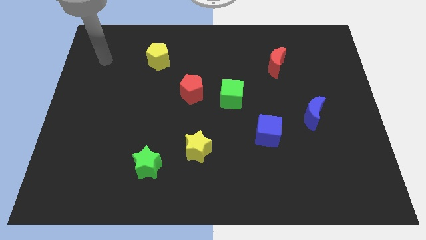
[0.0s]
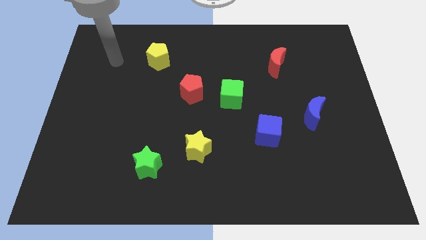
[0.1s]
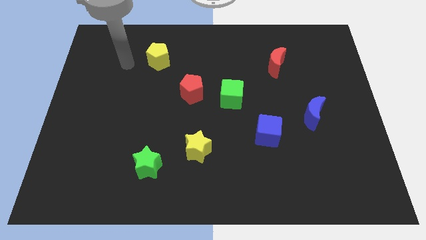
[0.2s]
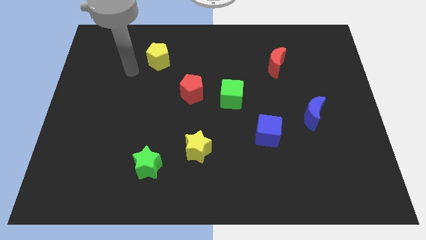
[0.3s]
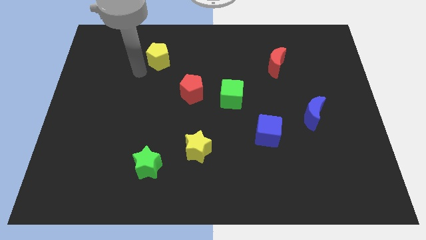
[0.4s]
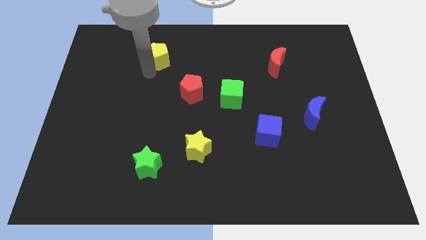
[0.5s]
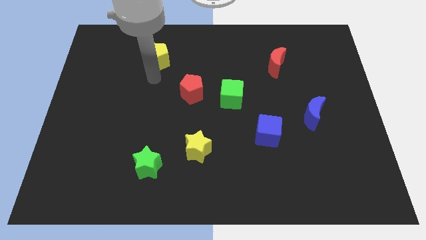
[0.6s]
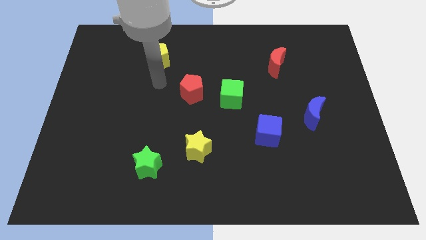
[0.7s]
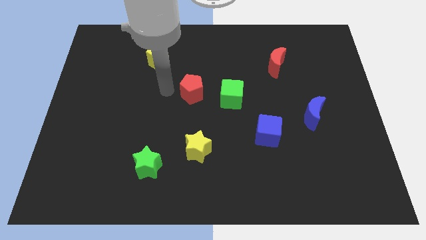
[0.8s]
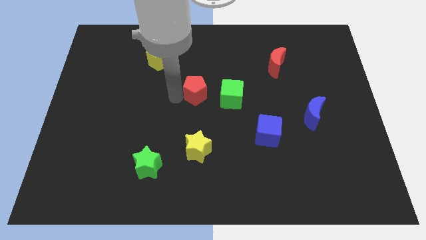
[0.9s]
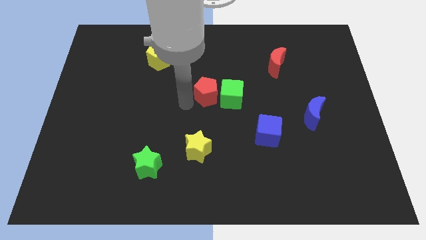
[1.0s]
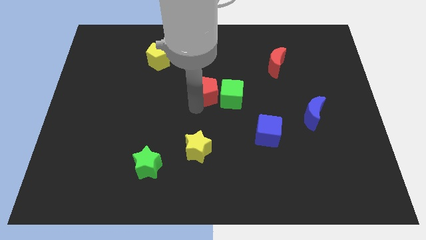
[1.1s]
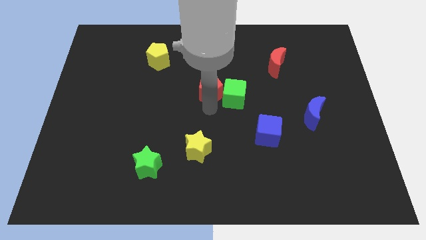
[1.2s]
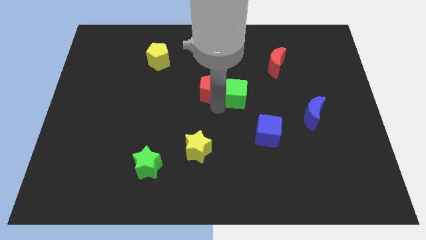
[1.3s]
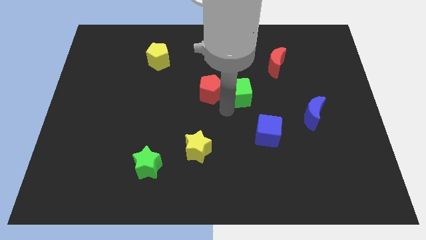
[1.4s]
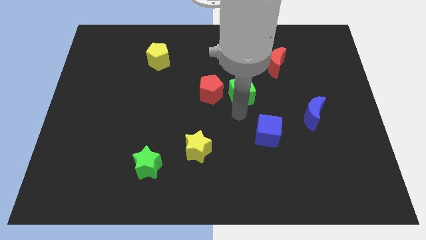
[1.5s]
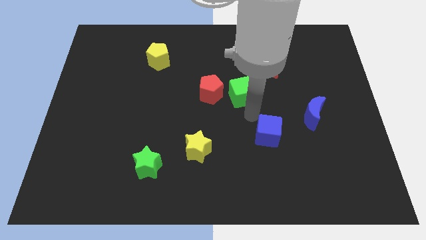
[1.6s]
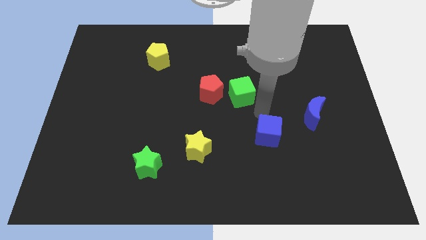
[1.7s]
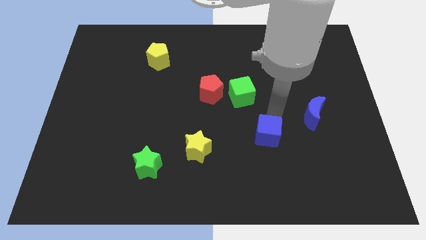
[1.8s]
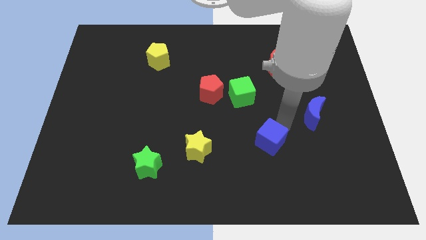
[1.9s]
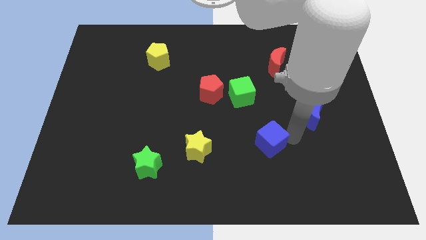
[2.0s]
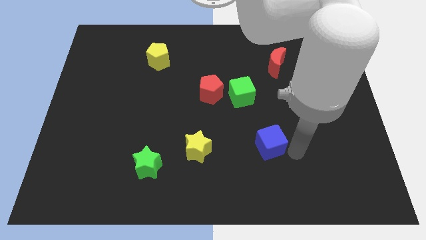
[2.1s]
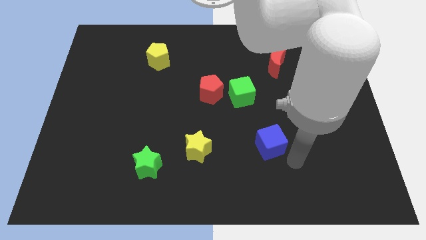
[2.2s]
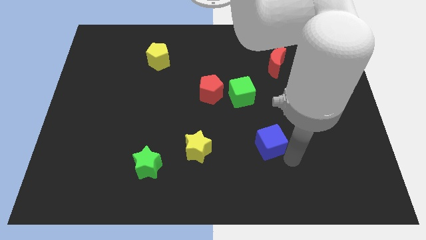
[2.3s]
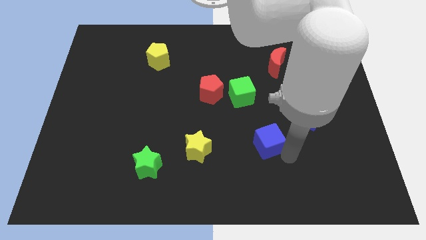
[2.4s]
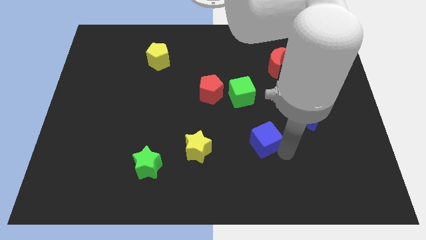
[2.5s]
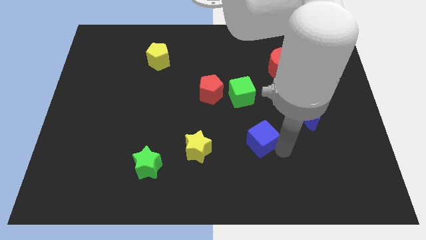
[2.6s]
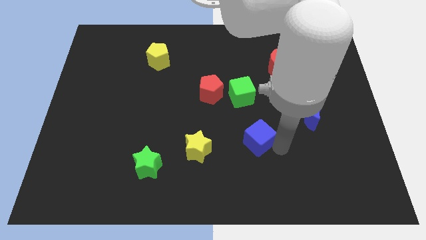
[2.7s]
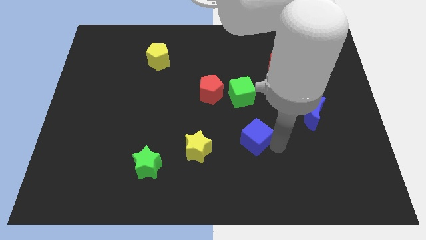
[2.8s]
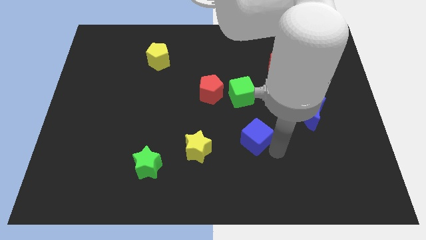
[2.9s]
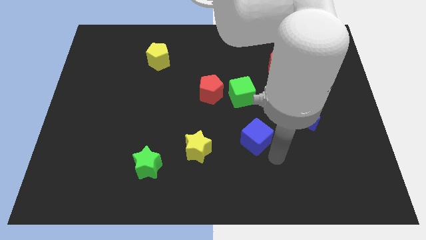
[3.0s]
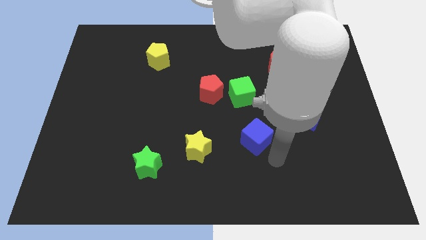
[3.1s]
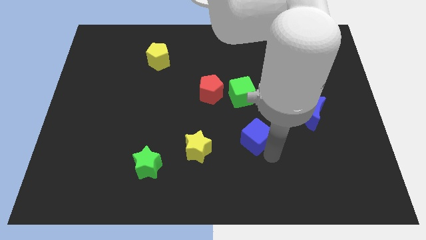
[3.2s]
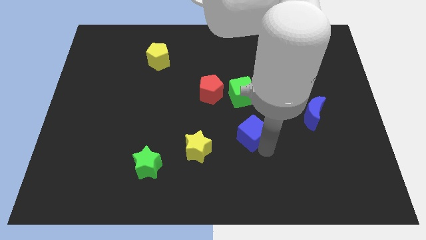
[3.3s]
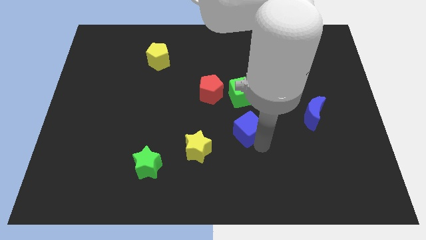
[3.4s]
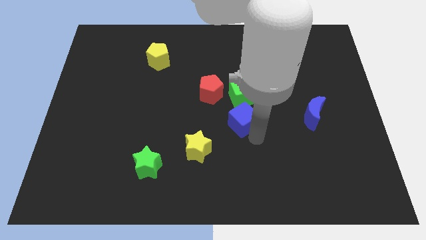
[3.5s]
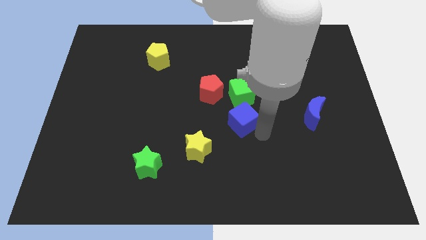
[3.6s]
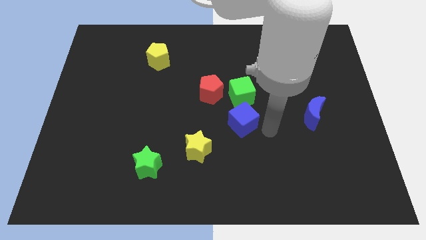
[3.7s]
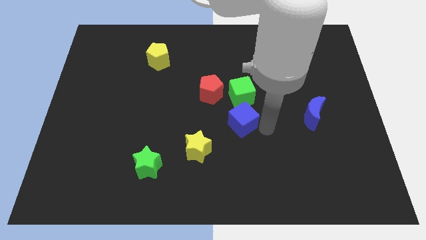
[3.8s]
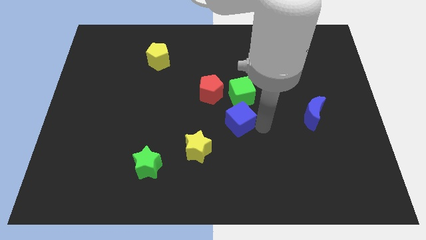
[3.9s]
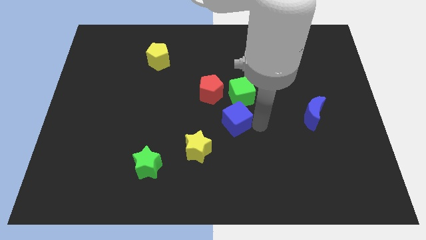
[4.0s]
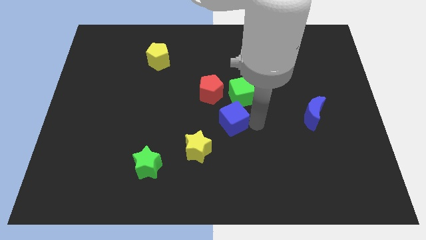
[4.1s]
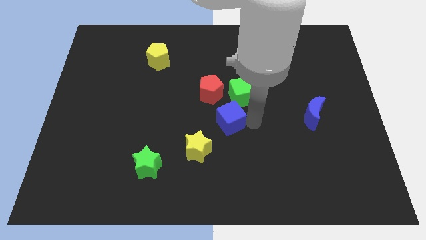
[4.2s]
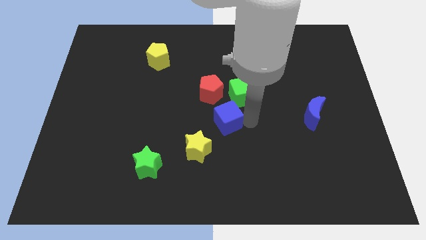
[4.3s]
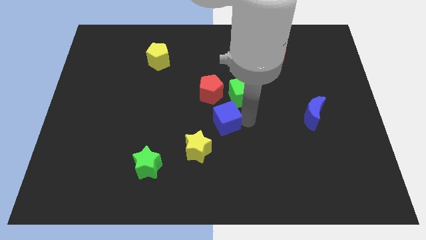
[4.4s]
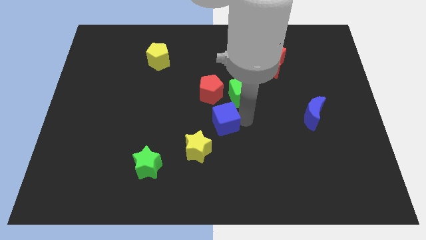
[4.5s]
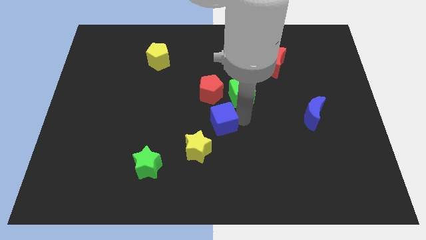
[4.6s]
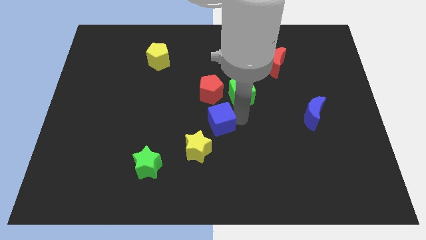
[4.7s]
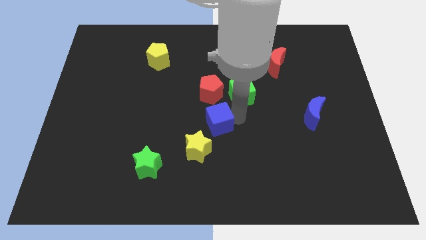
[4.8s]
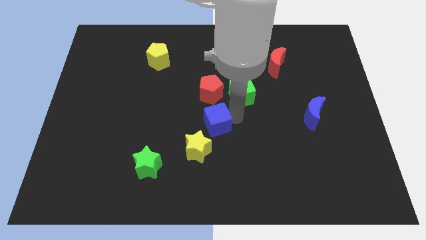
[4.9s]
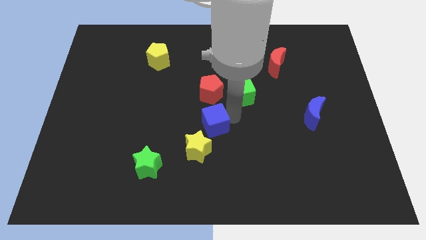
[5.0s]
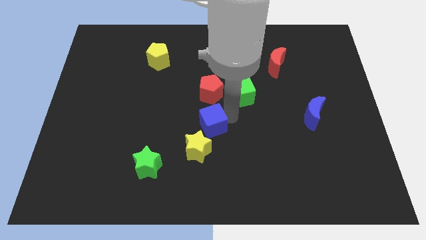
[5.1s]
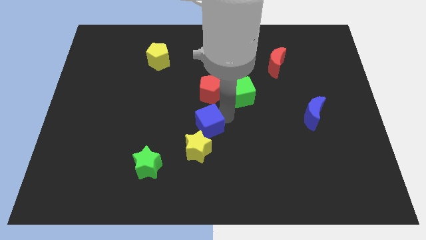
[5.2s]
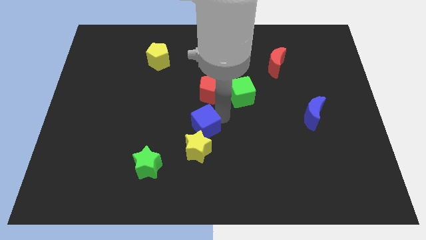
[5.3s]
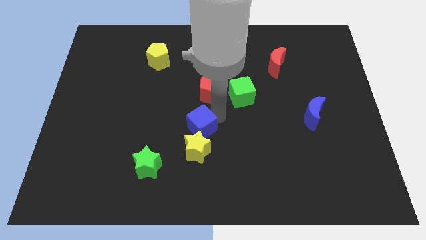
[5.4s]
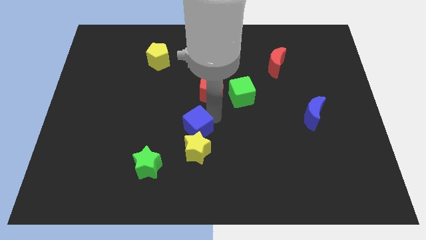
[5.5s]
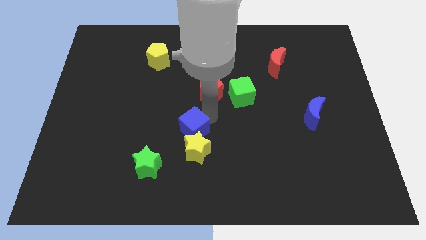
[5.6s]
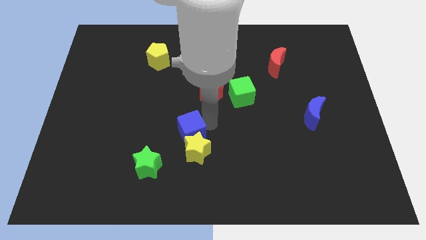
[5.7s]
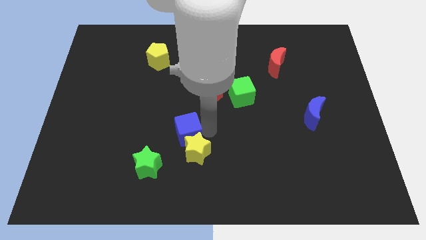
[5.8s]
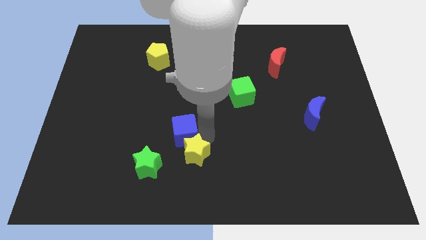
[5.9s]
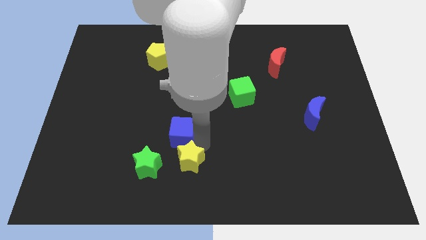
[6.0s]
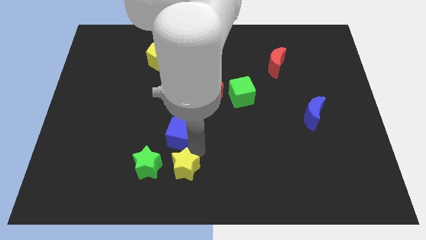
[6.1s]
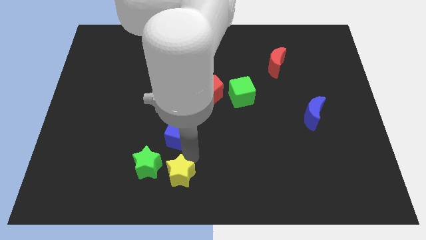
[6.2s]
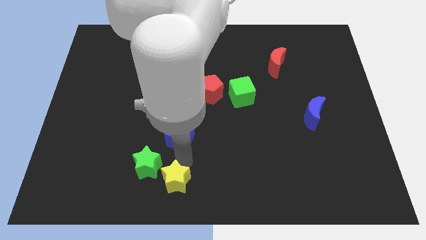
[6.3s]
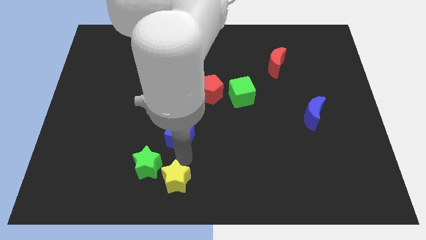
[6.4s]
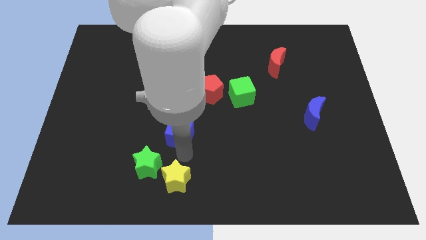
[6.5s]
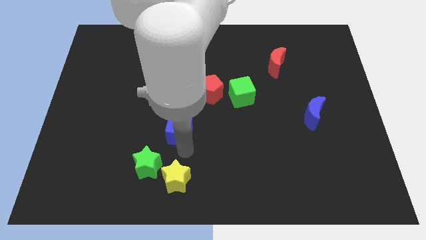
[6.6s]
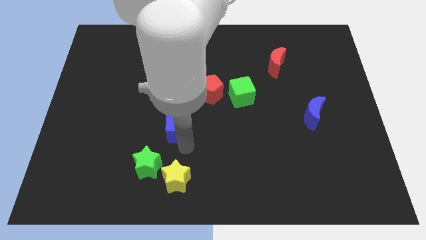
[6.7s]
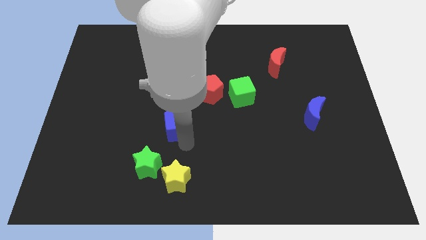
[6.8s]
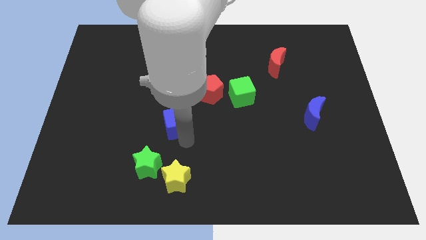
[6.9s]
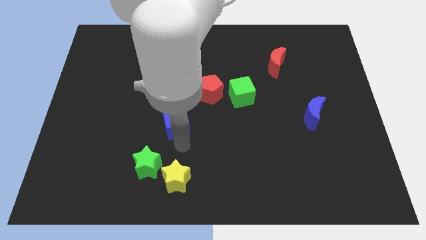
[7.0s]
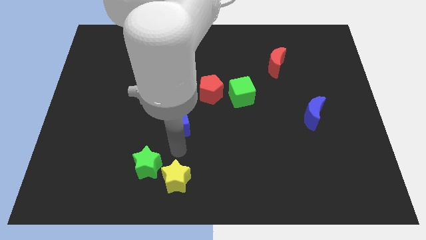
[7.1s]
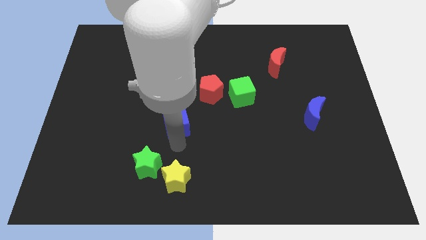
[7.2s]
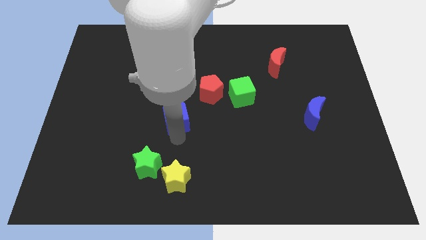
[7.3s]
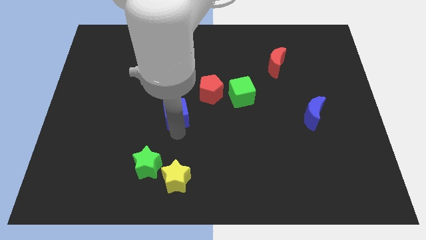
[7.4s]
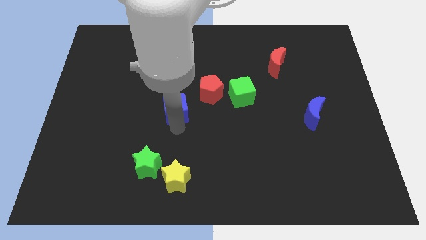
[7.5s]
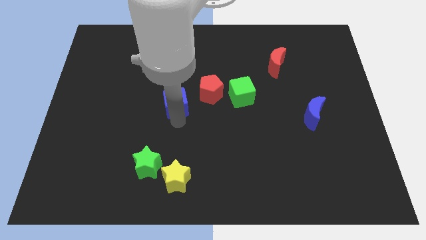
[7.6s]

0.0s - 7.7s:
slide the blue cube to the left of the red pentagon

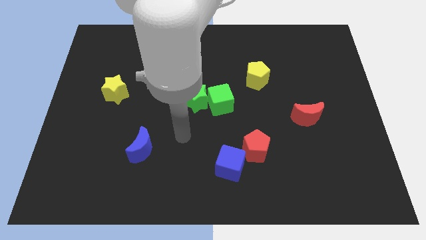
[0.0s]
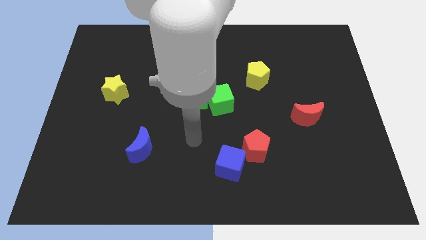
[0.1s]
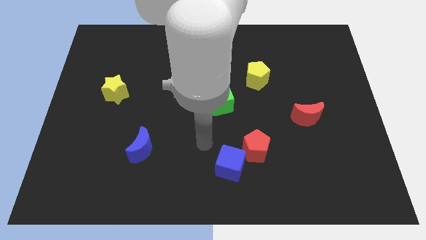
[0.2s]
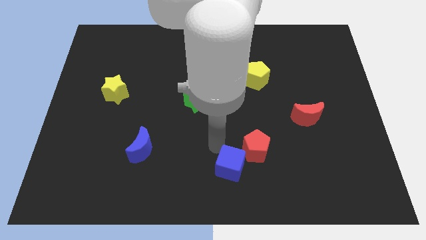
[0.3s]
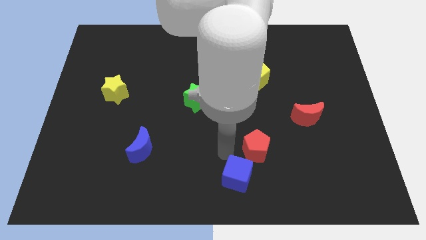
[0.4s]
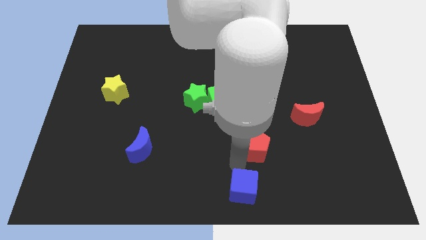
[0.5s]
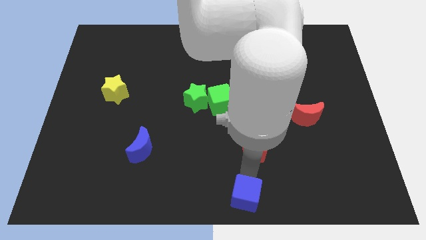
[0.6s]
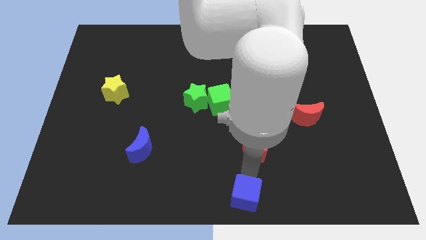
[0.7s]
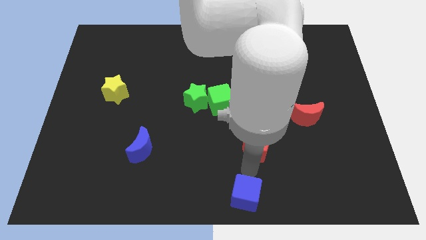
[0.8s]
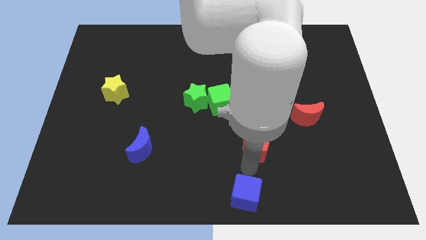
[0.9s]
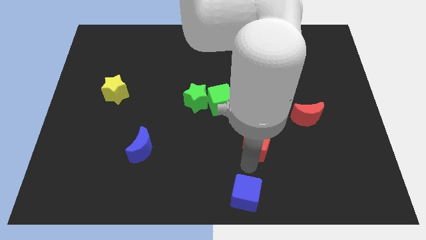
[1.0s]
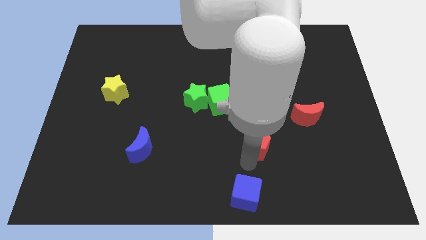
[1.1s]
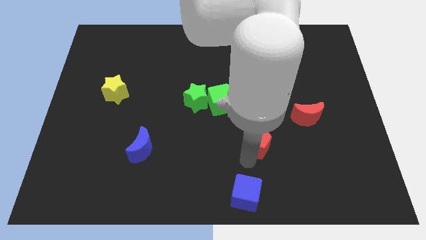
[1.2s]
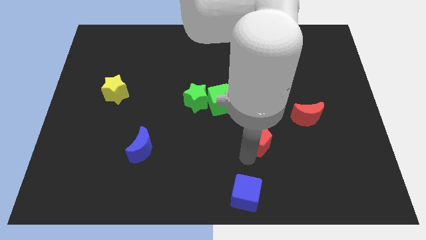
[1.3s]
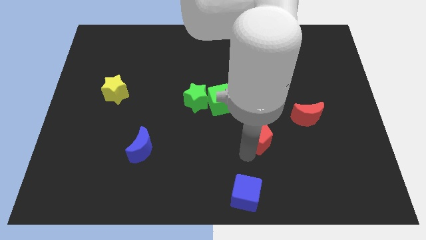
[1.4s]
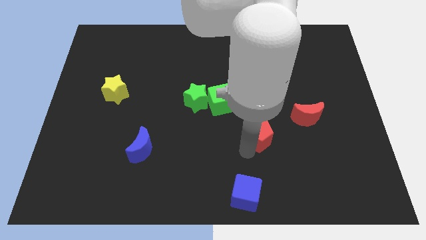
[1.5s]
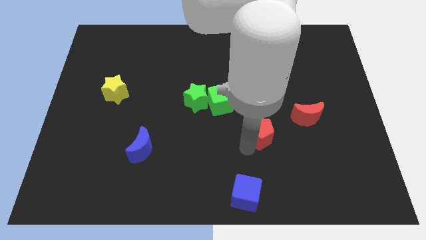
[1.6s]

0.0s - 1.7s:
push the red pentagon to the left side of the red moon
